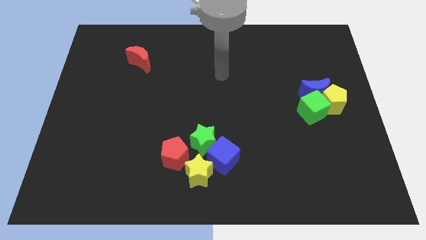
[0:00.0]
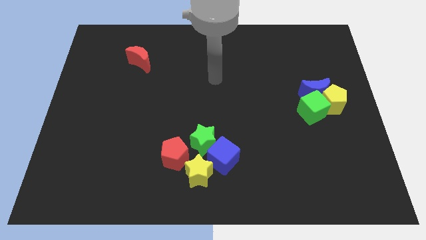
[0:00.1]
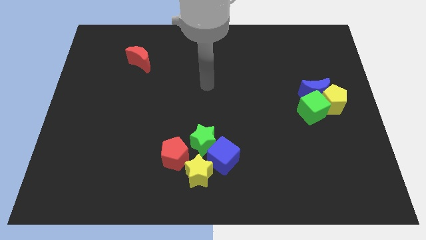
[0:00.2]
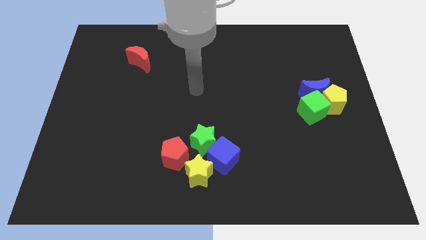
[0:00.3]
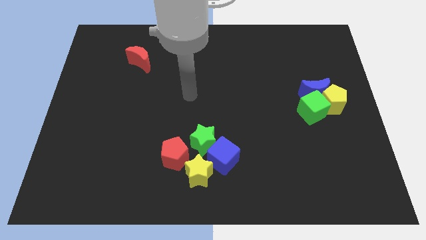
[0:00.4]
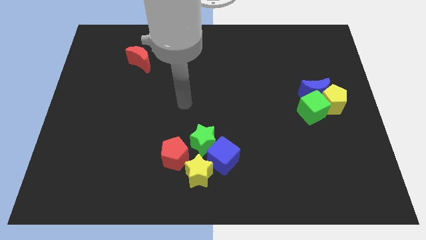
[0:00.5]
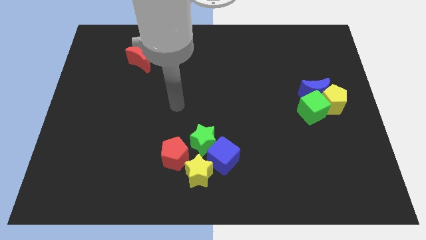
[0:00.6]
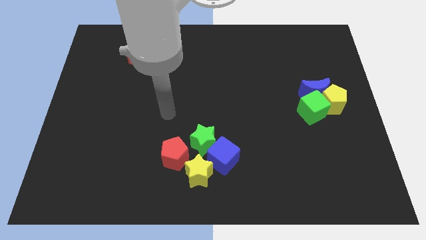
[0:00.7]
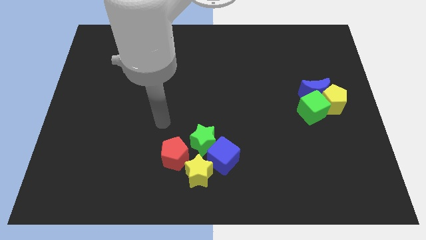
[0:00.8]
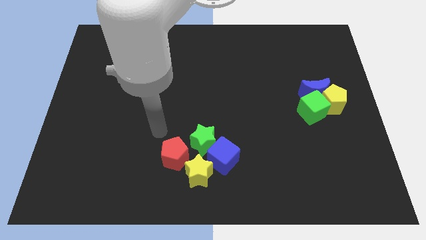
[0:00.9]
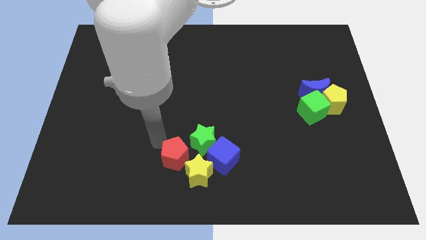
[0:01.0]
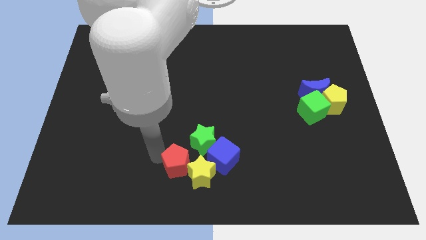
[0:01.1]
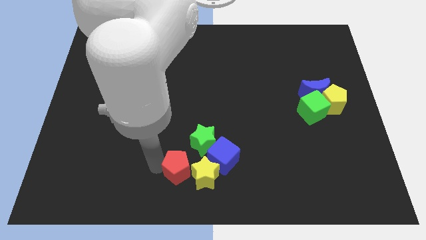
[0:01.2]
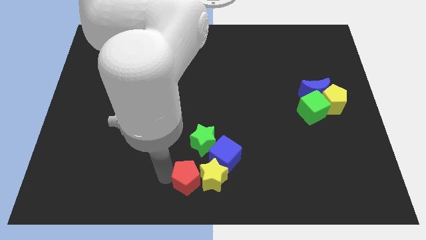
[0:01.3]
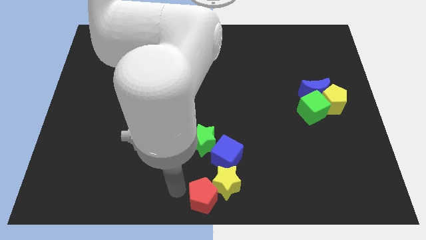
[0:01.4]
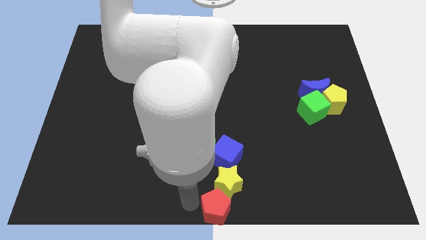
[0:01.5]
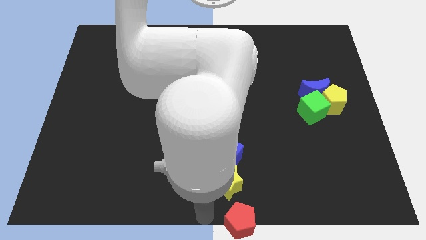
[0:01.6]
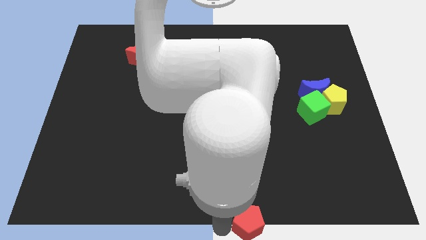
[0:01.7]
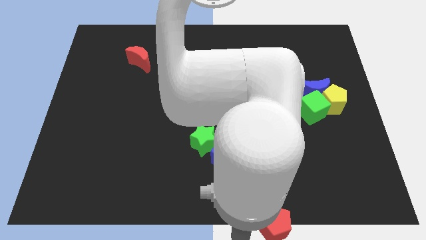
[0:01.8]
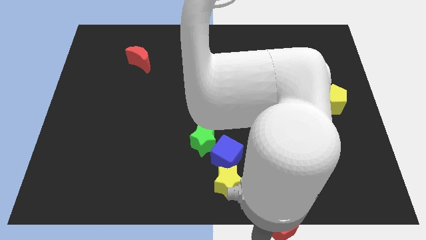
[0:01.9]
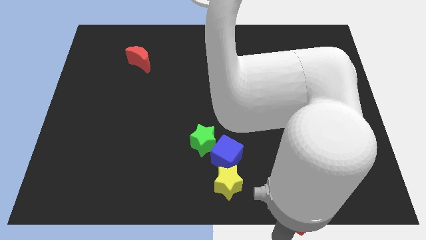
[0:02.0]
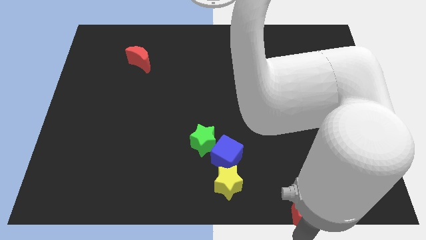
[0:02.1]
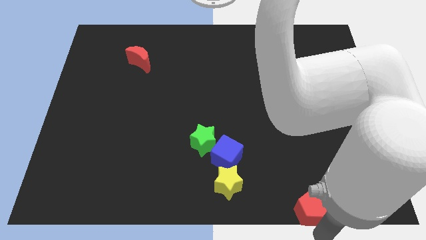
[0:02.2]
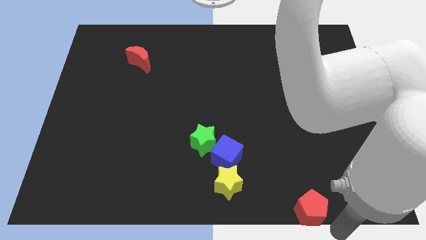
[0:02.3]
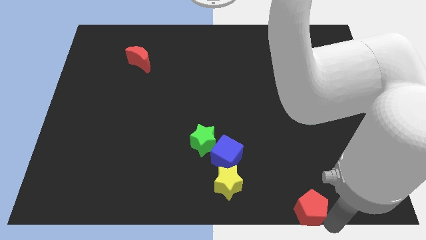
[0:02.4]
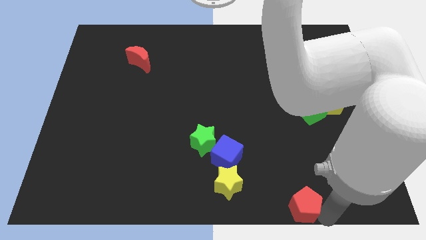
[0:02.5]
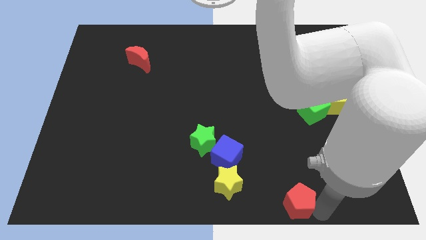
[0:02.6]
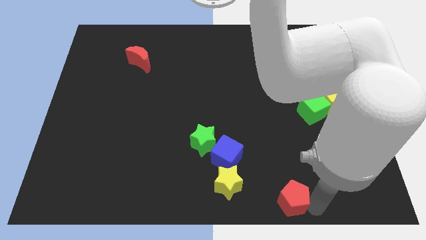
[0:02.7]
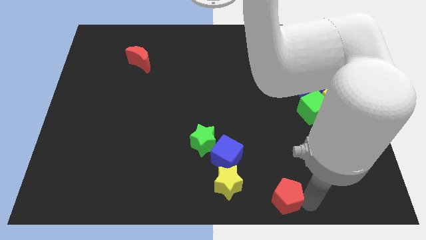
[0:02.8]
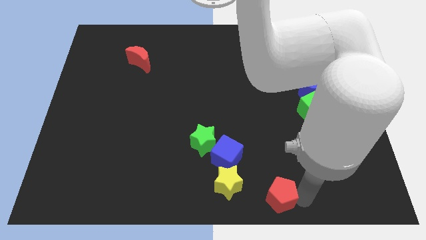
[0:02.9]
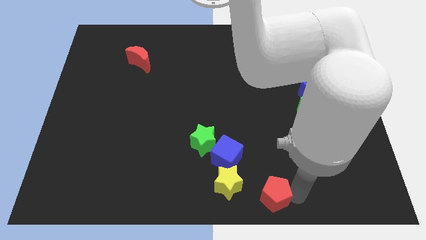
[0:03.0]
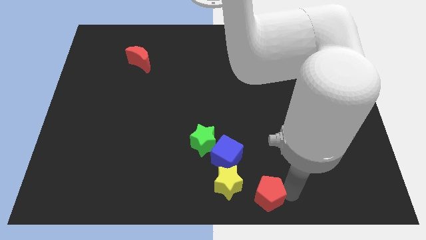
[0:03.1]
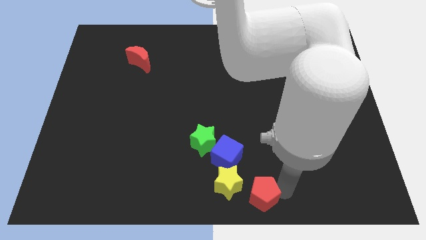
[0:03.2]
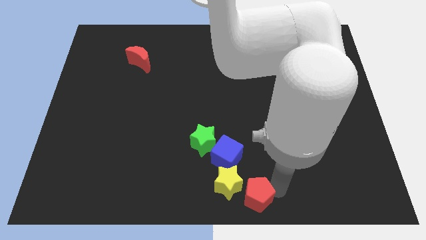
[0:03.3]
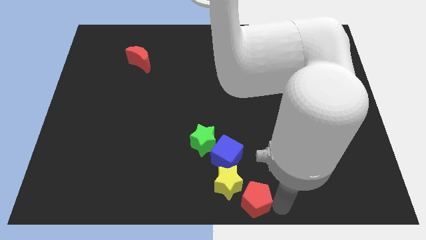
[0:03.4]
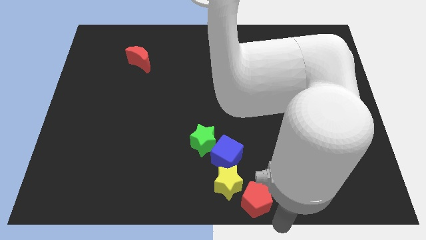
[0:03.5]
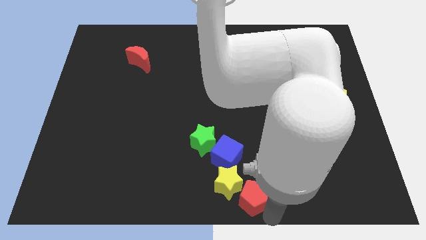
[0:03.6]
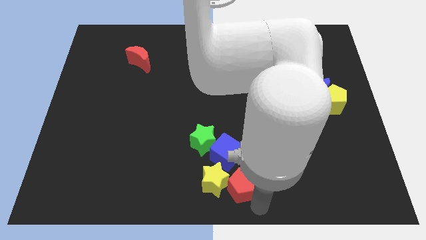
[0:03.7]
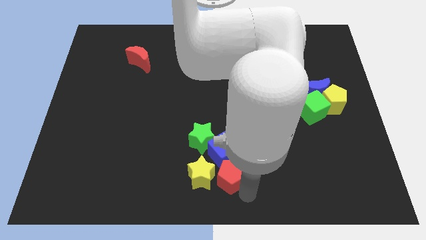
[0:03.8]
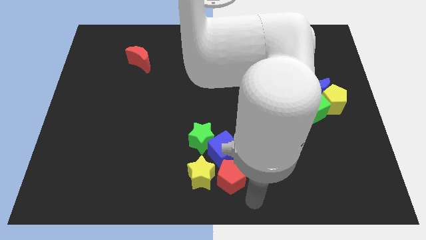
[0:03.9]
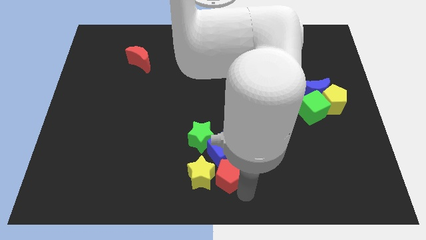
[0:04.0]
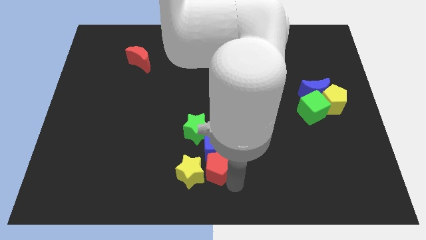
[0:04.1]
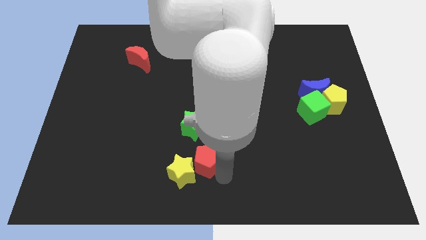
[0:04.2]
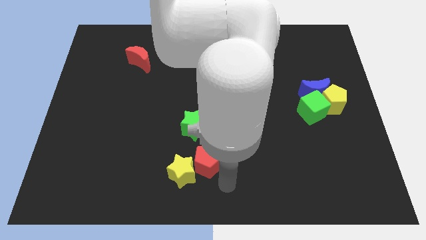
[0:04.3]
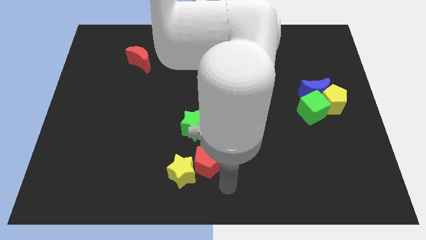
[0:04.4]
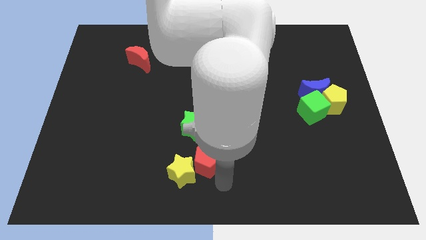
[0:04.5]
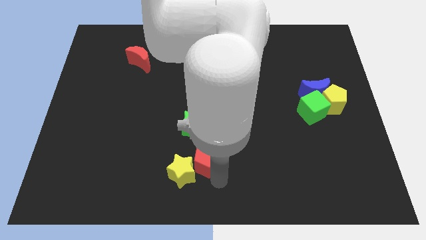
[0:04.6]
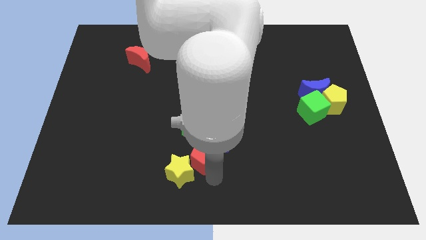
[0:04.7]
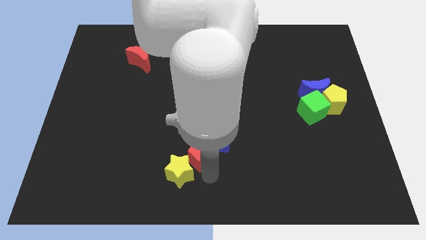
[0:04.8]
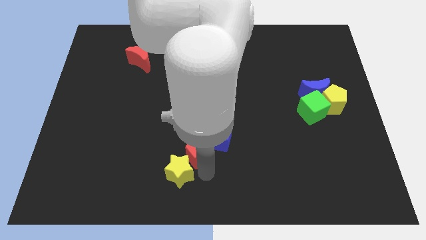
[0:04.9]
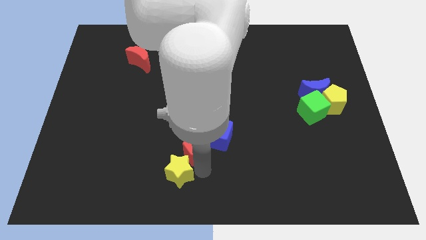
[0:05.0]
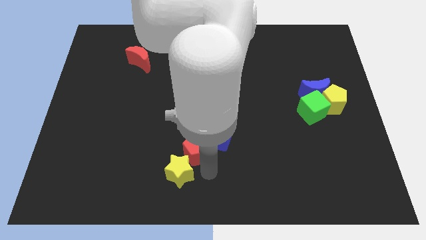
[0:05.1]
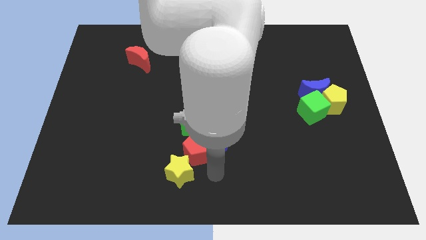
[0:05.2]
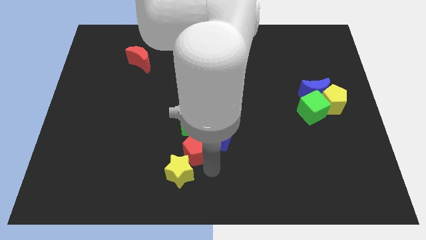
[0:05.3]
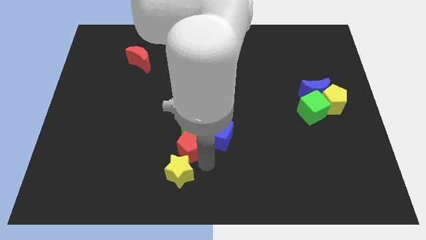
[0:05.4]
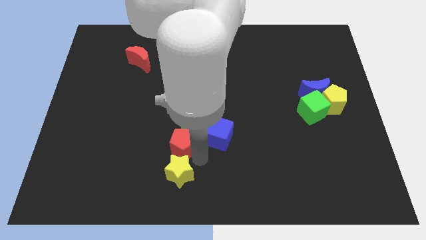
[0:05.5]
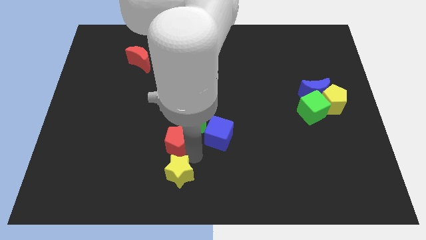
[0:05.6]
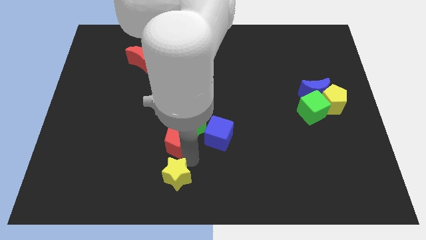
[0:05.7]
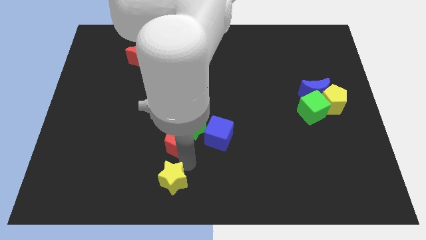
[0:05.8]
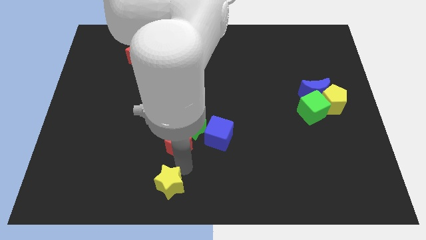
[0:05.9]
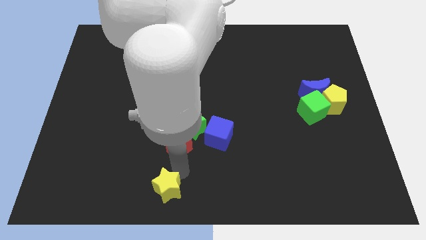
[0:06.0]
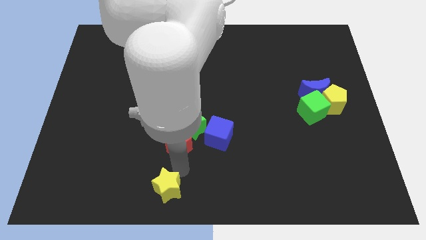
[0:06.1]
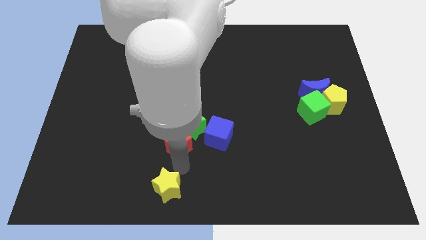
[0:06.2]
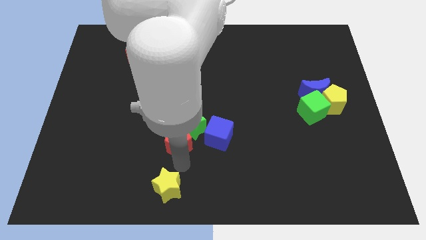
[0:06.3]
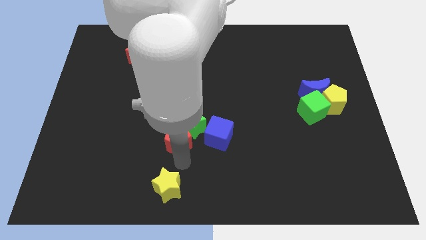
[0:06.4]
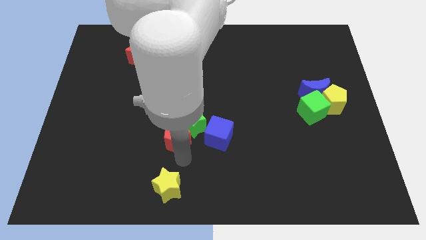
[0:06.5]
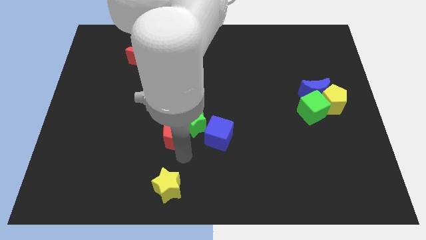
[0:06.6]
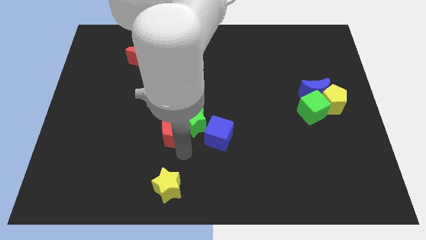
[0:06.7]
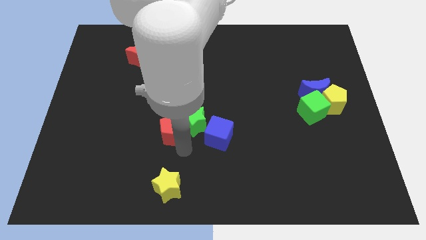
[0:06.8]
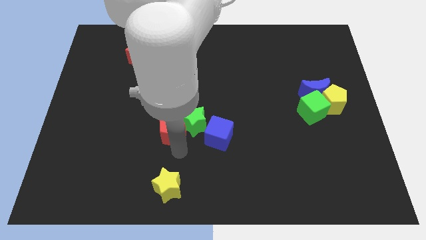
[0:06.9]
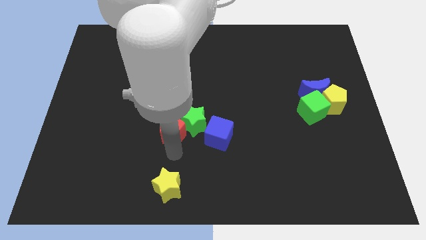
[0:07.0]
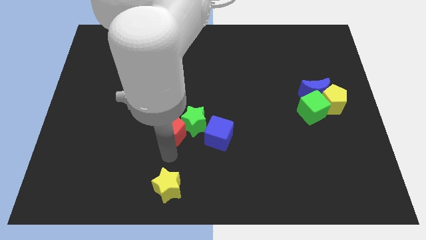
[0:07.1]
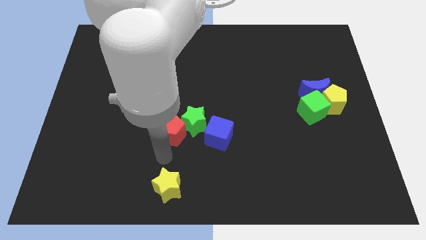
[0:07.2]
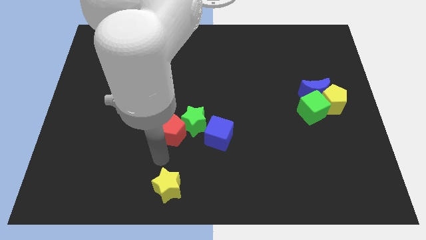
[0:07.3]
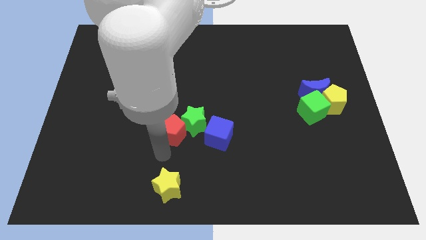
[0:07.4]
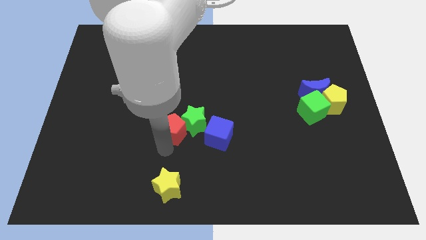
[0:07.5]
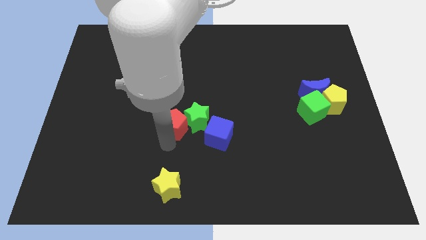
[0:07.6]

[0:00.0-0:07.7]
push the red pentagon a bit upwards

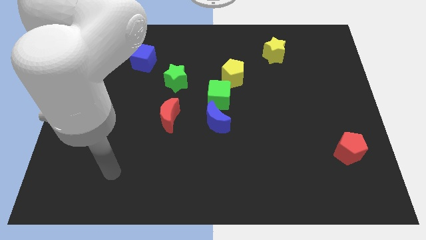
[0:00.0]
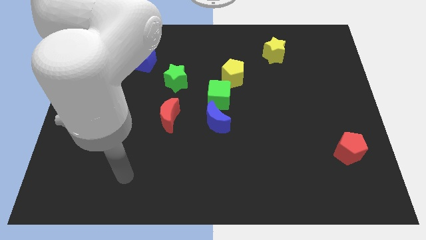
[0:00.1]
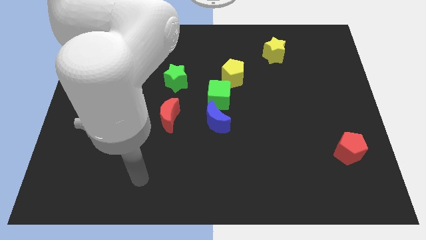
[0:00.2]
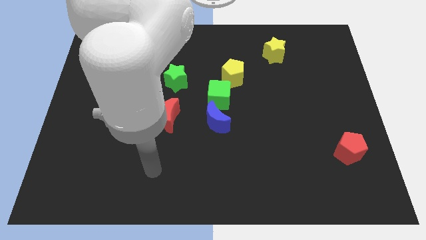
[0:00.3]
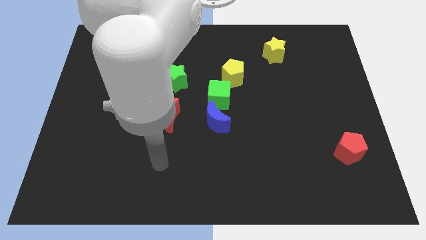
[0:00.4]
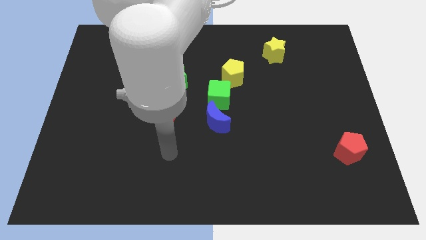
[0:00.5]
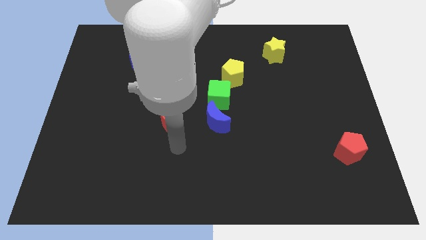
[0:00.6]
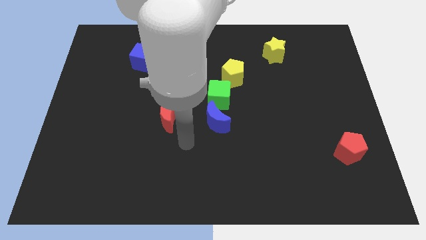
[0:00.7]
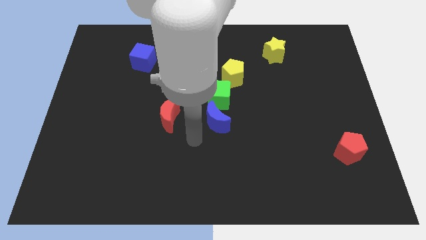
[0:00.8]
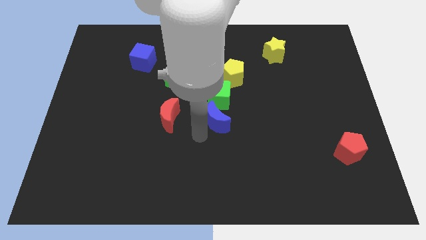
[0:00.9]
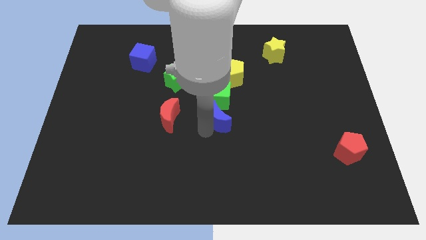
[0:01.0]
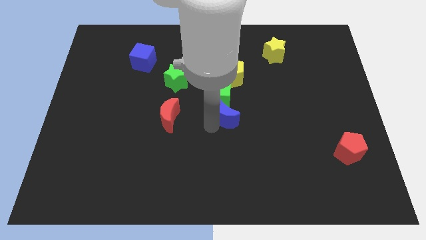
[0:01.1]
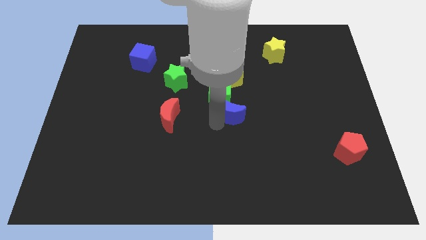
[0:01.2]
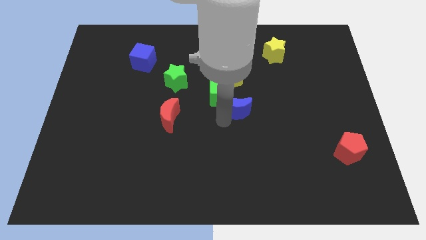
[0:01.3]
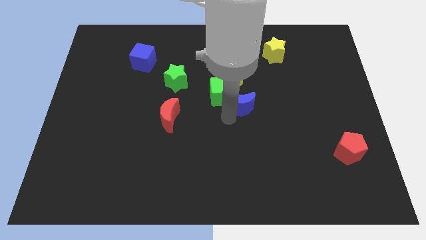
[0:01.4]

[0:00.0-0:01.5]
slightly slide the blue moon up and right diagonally
